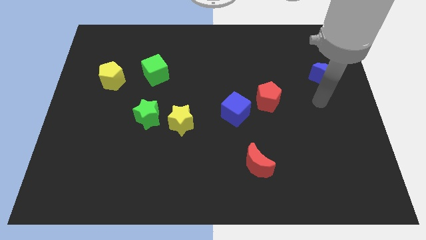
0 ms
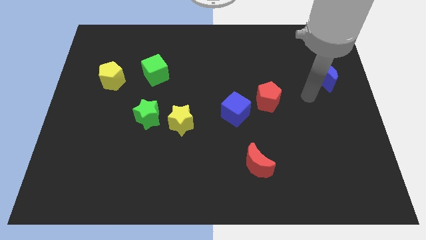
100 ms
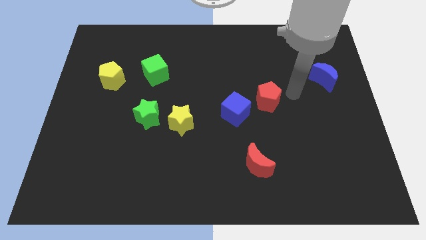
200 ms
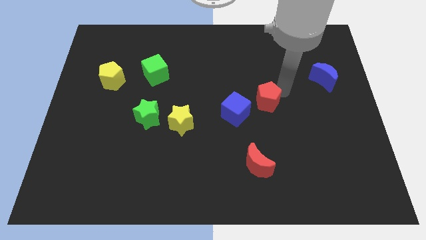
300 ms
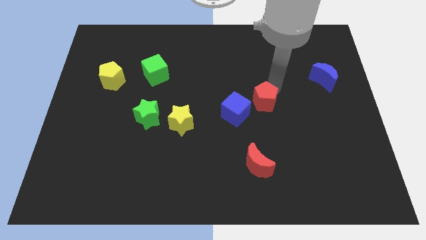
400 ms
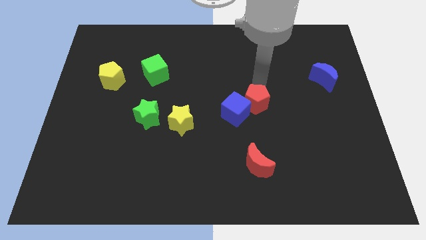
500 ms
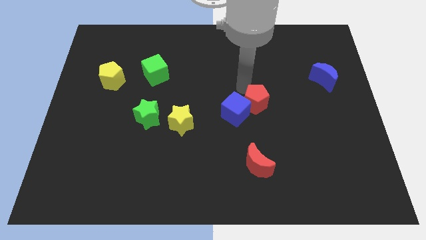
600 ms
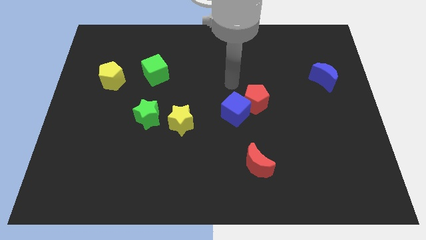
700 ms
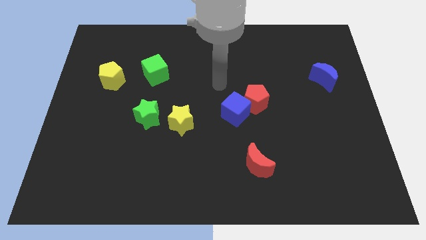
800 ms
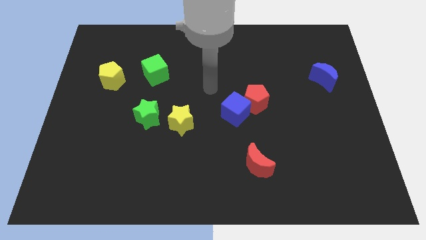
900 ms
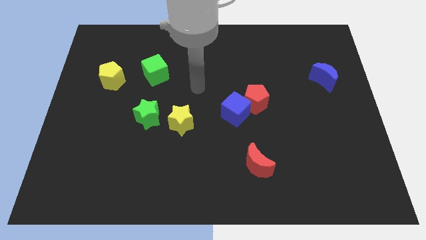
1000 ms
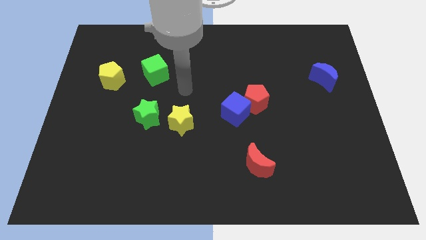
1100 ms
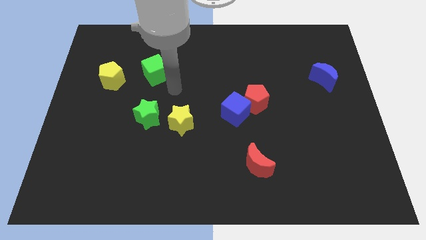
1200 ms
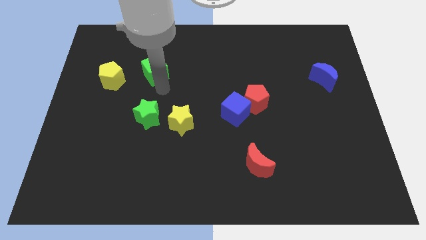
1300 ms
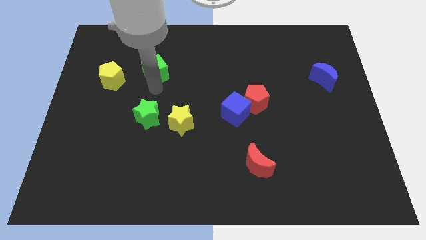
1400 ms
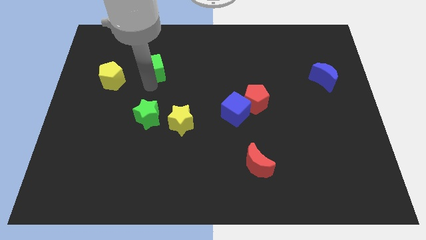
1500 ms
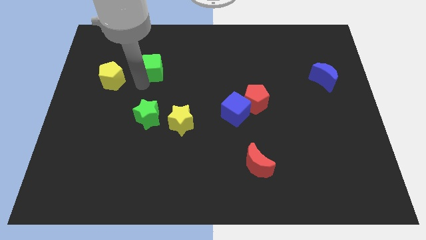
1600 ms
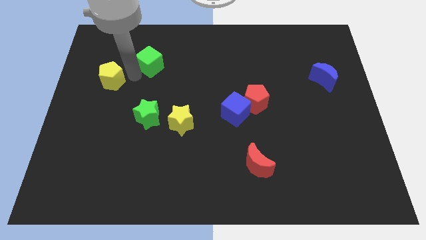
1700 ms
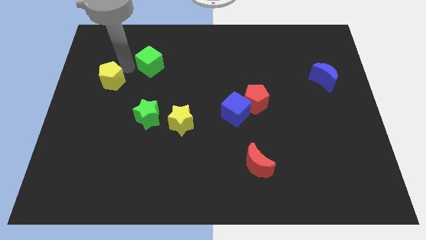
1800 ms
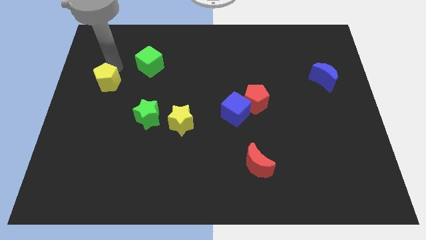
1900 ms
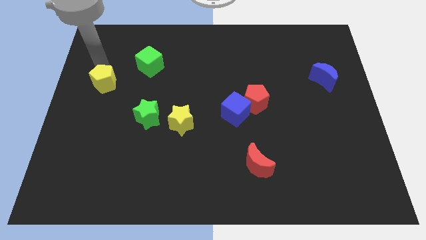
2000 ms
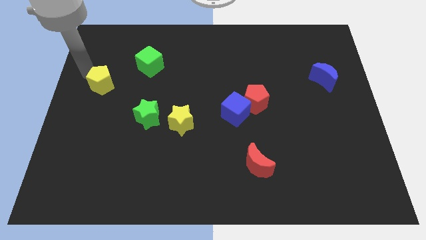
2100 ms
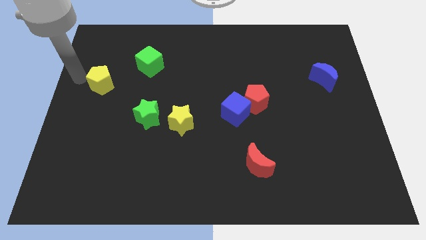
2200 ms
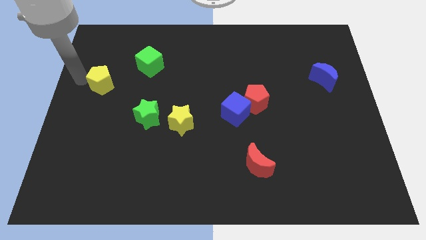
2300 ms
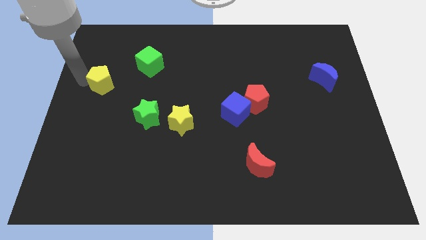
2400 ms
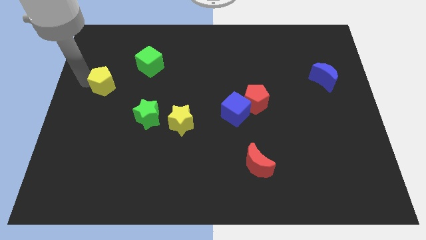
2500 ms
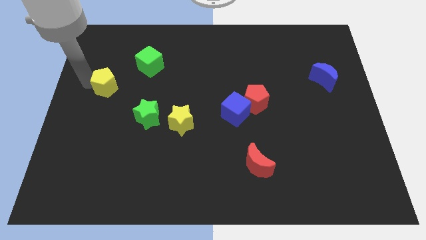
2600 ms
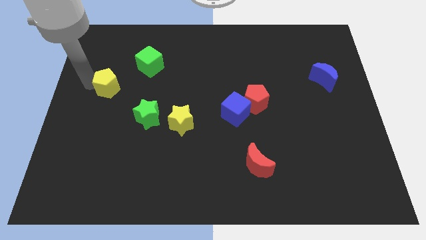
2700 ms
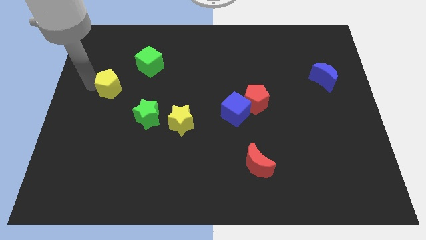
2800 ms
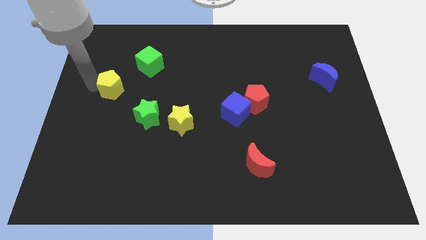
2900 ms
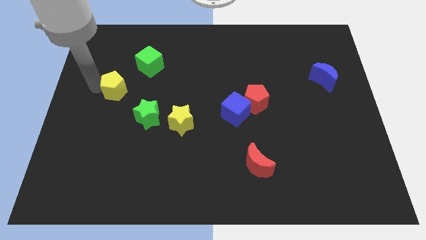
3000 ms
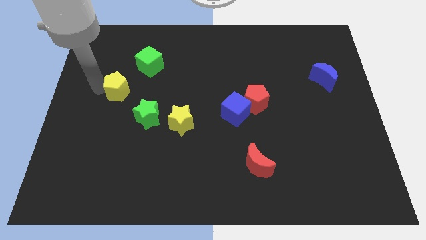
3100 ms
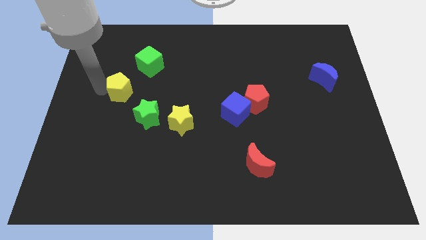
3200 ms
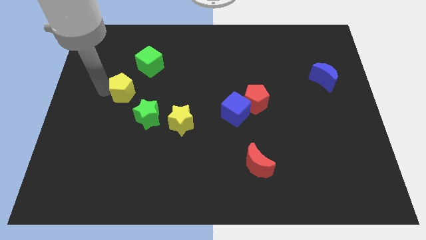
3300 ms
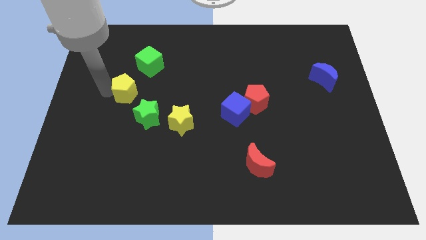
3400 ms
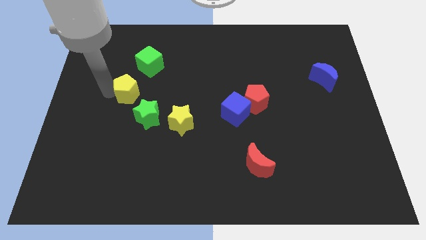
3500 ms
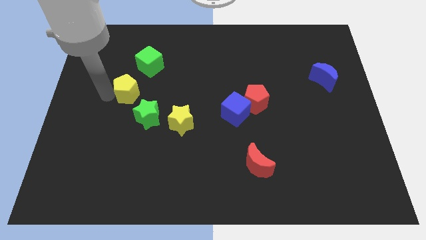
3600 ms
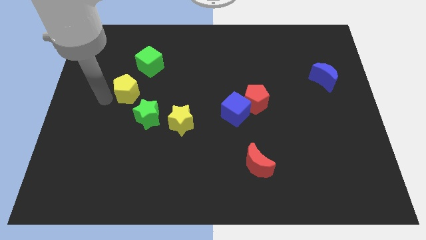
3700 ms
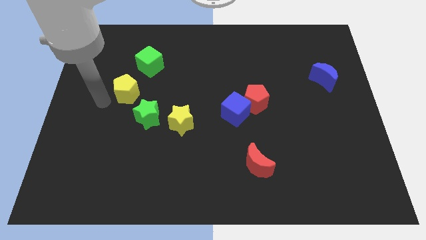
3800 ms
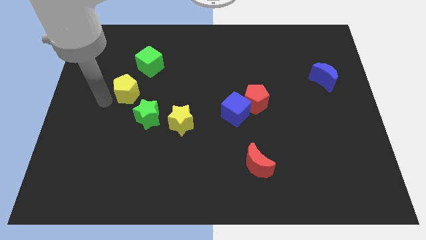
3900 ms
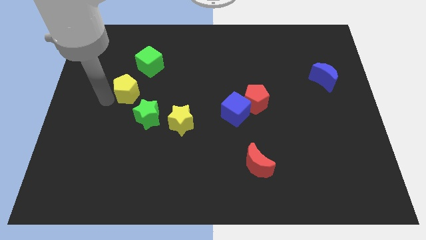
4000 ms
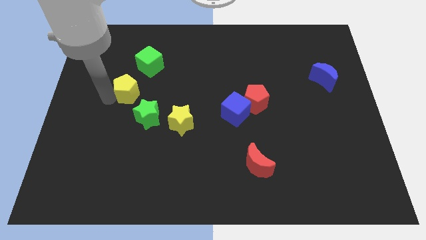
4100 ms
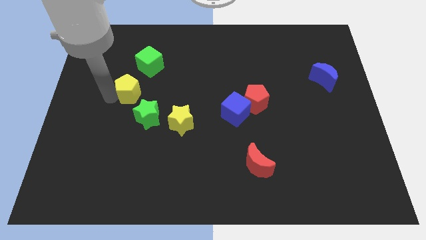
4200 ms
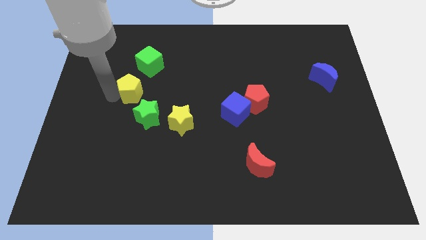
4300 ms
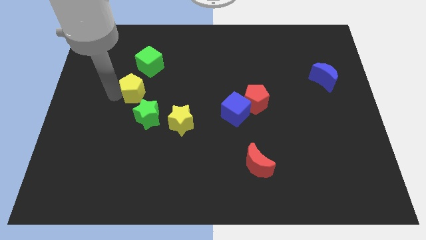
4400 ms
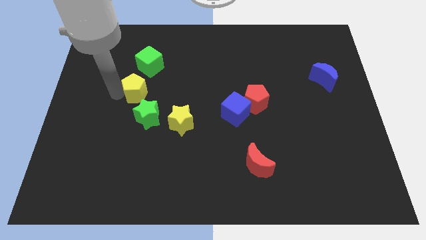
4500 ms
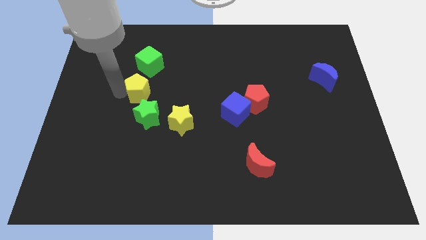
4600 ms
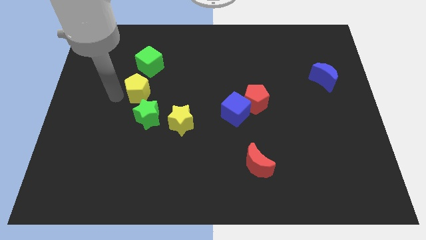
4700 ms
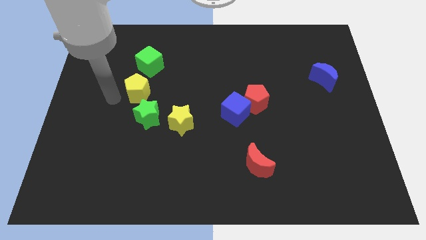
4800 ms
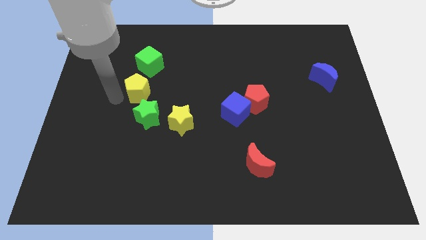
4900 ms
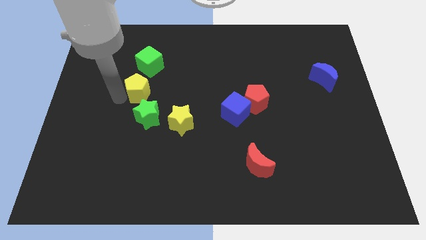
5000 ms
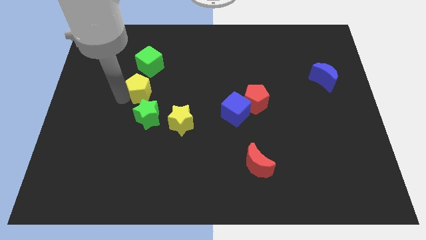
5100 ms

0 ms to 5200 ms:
move the yellow pentagon right a bit

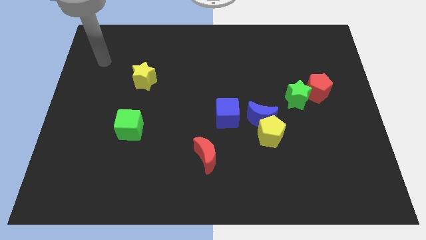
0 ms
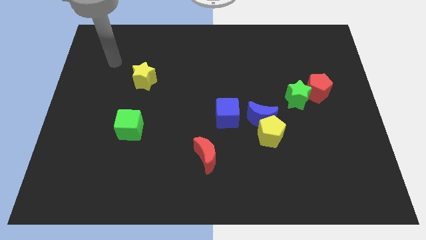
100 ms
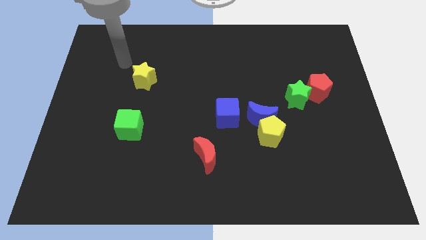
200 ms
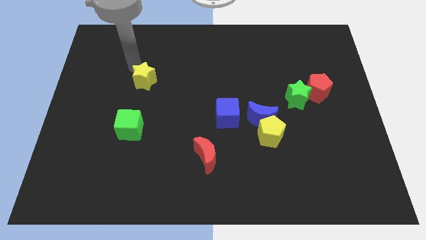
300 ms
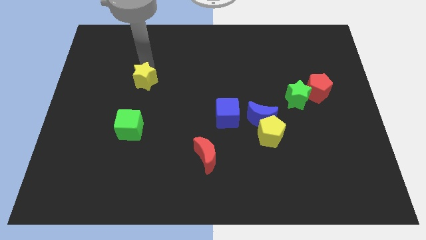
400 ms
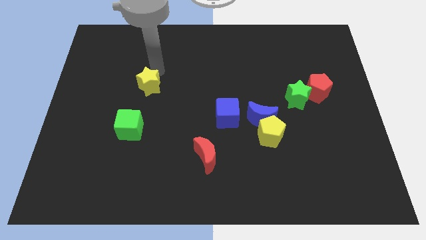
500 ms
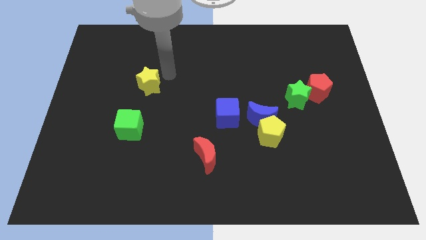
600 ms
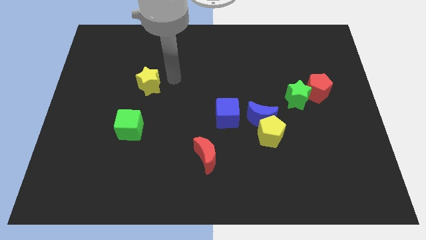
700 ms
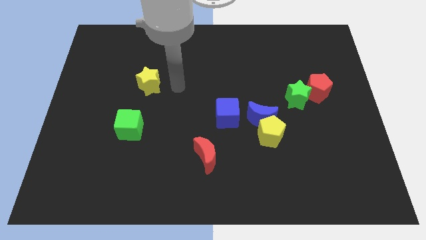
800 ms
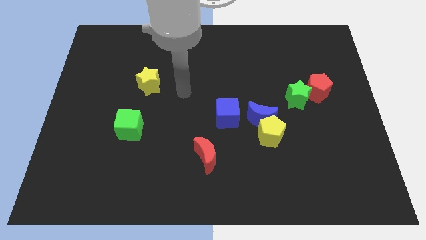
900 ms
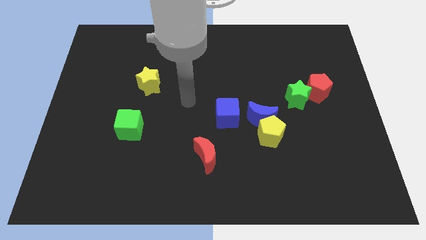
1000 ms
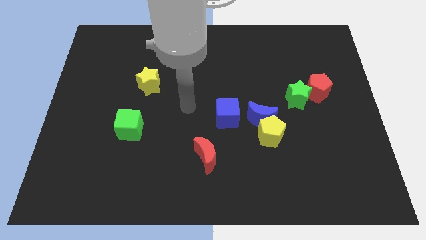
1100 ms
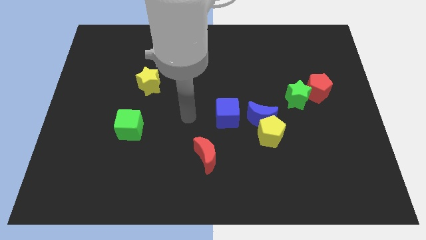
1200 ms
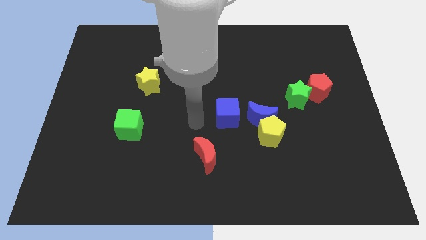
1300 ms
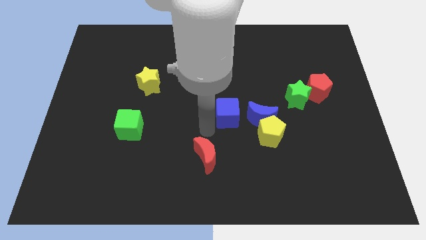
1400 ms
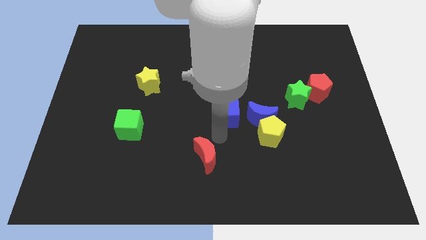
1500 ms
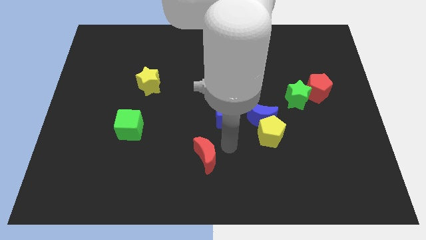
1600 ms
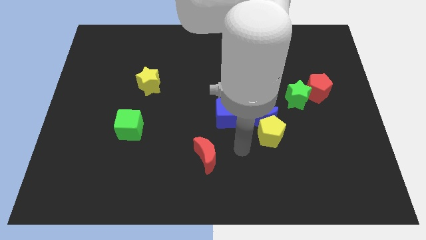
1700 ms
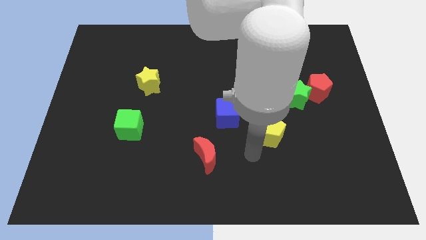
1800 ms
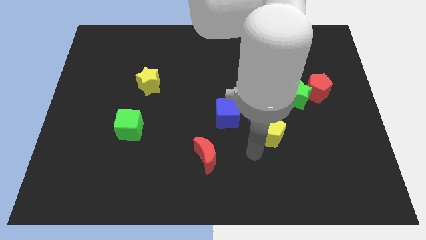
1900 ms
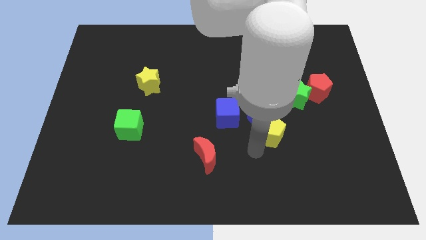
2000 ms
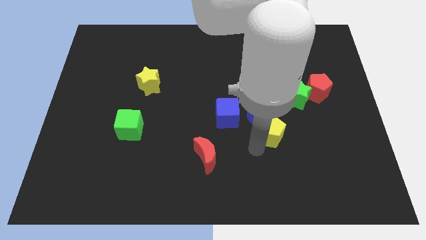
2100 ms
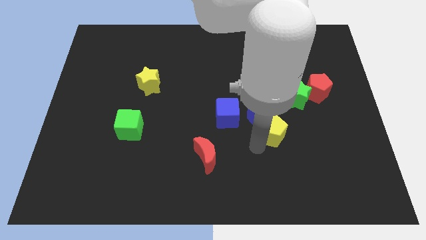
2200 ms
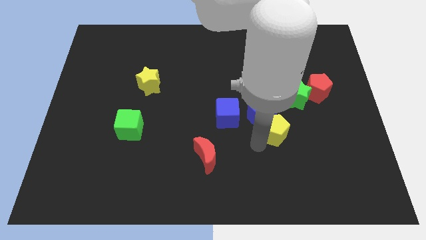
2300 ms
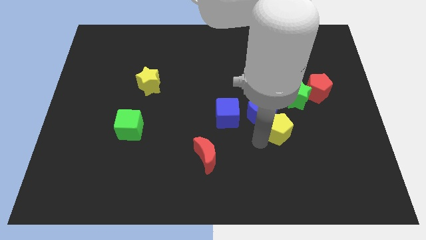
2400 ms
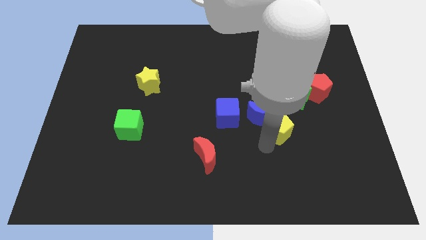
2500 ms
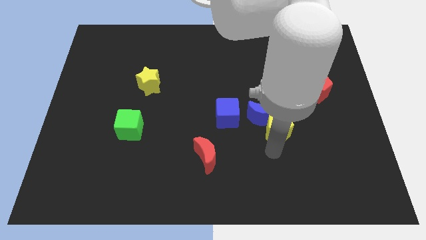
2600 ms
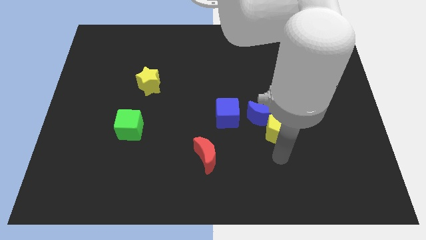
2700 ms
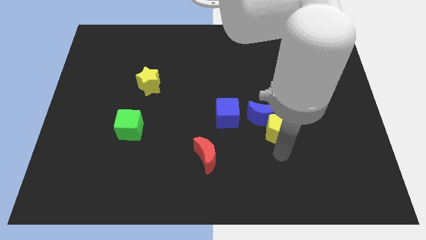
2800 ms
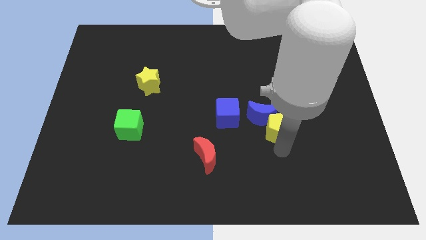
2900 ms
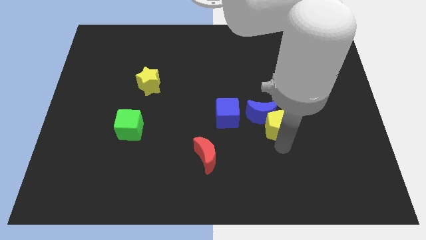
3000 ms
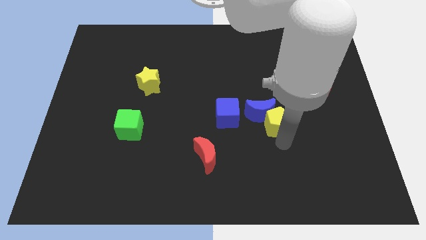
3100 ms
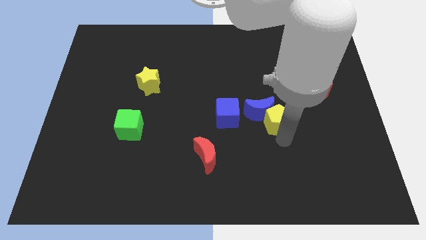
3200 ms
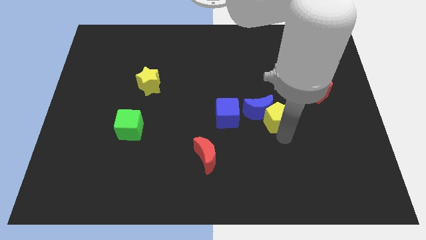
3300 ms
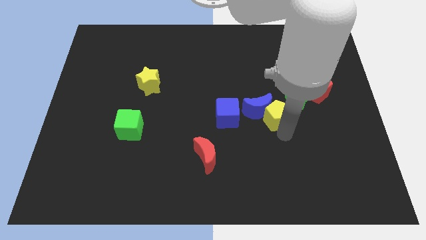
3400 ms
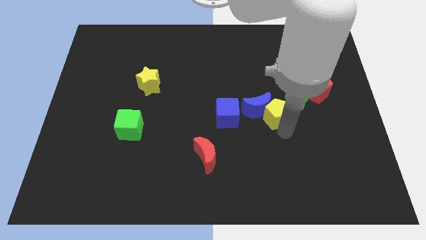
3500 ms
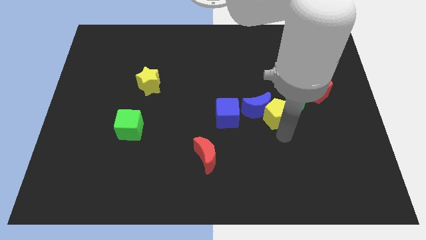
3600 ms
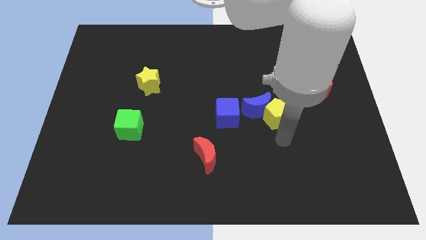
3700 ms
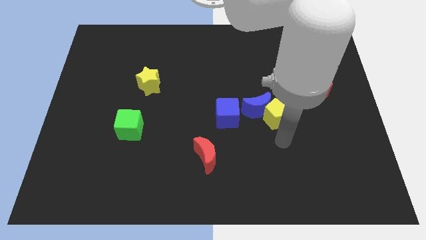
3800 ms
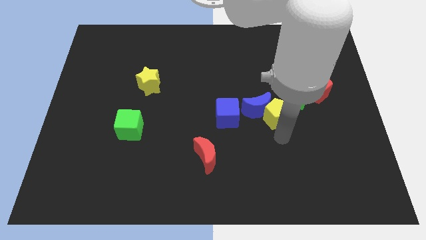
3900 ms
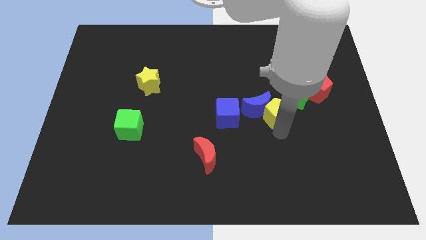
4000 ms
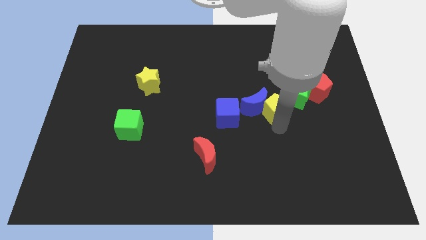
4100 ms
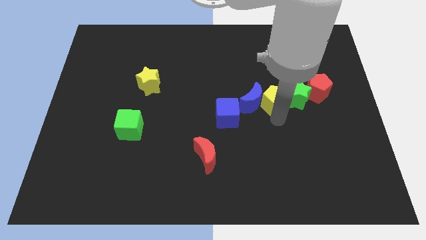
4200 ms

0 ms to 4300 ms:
move the yellow pentagon up somewhat
